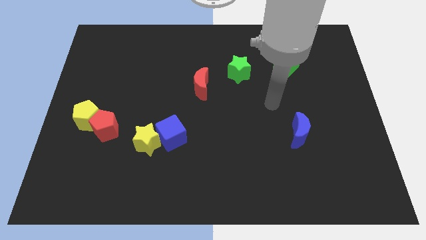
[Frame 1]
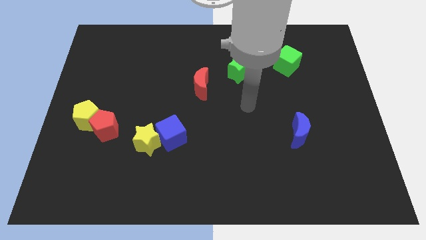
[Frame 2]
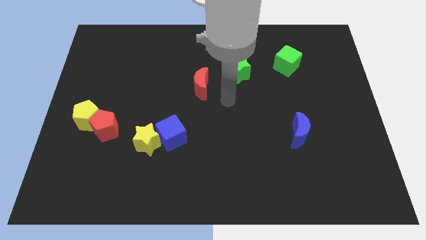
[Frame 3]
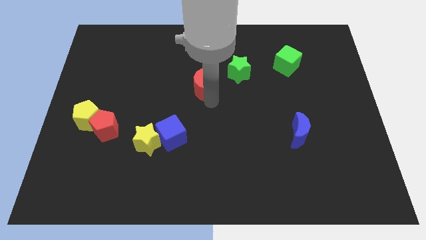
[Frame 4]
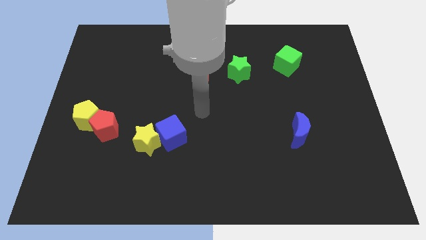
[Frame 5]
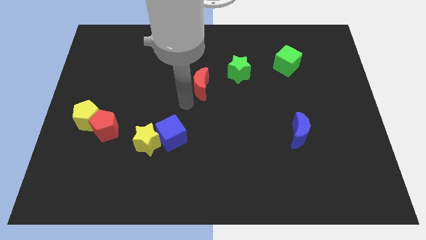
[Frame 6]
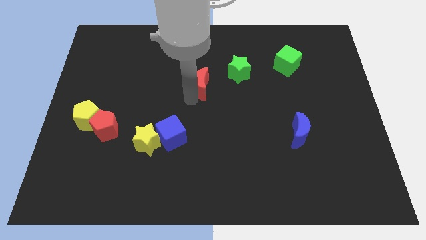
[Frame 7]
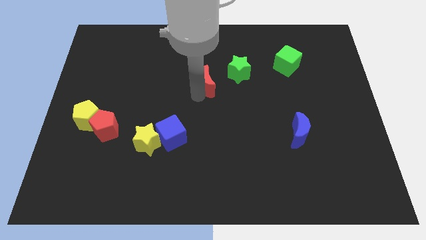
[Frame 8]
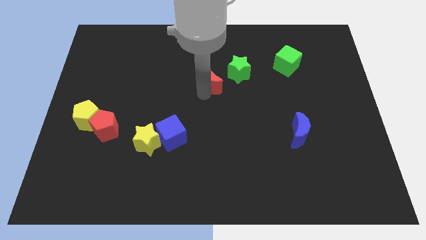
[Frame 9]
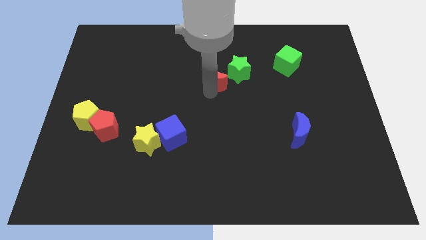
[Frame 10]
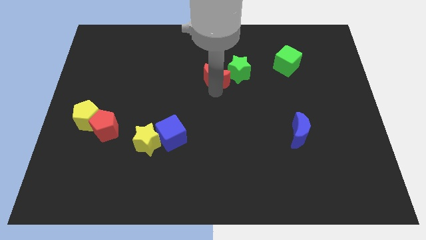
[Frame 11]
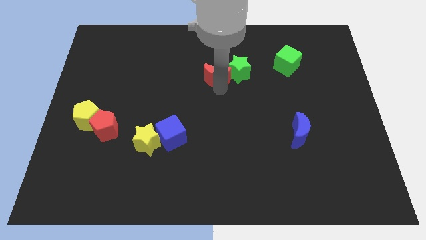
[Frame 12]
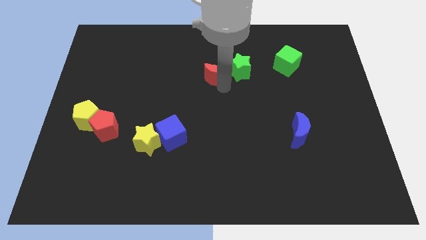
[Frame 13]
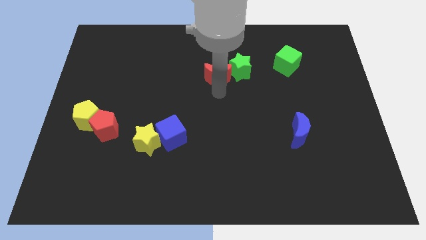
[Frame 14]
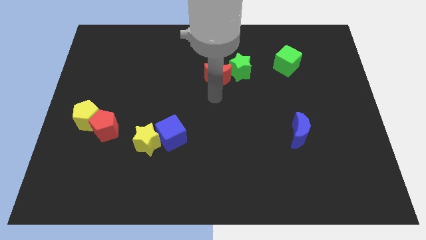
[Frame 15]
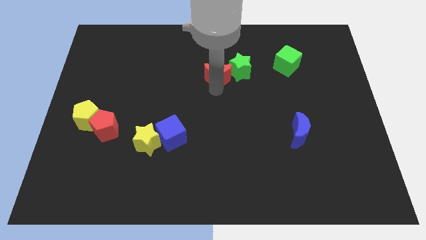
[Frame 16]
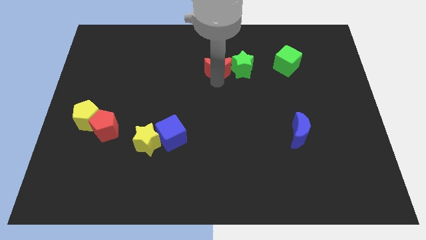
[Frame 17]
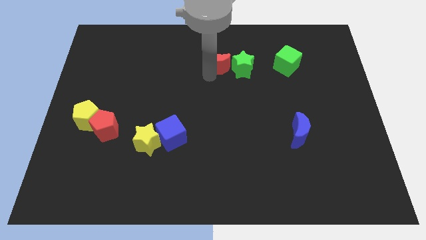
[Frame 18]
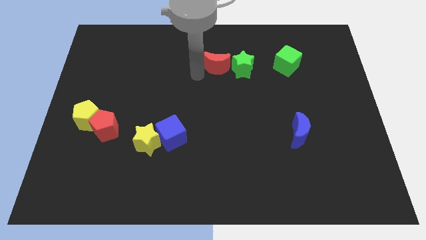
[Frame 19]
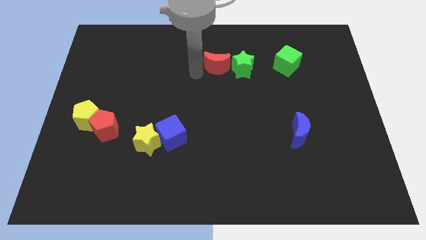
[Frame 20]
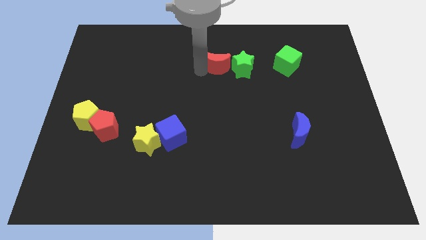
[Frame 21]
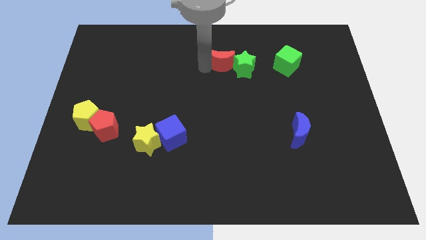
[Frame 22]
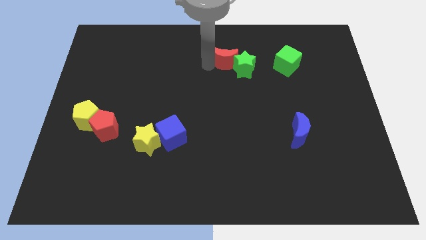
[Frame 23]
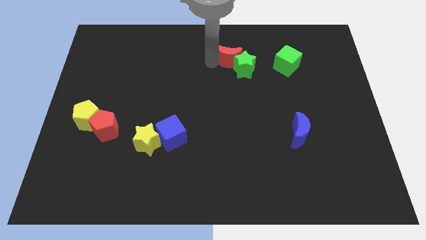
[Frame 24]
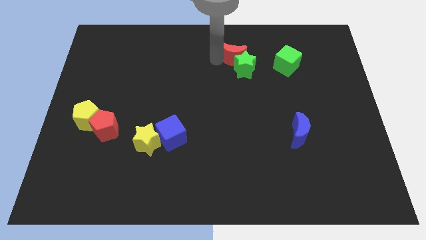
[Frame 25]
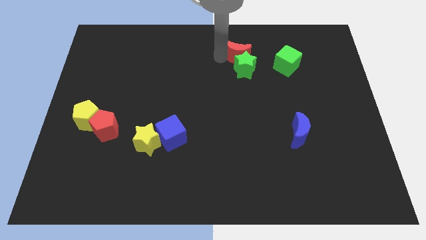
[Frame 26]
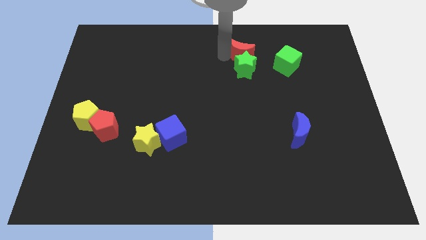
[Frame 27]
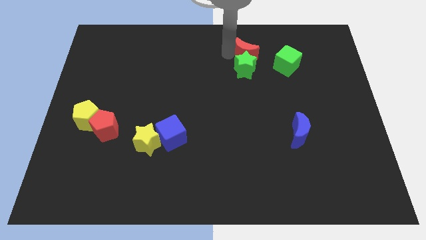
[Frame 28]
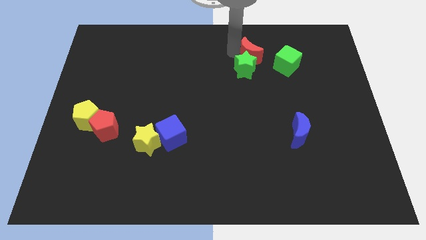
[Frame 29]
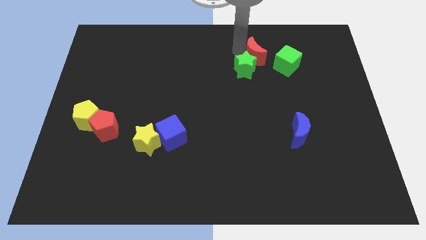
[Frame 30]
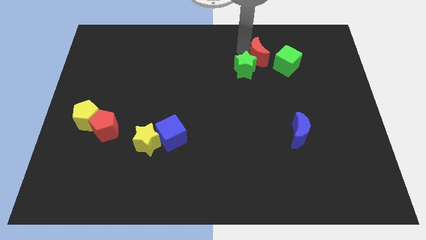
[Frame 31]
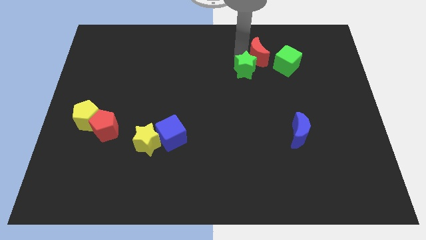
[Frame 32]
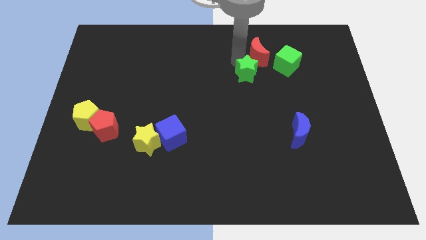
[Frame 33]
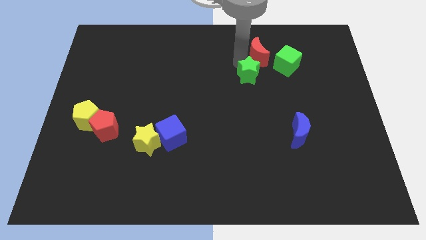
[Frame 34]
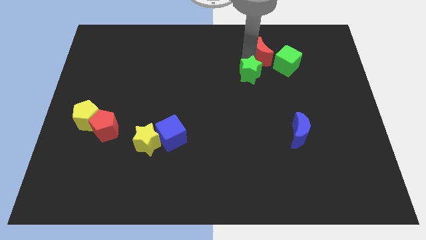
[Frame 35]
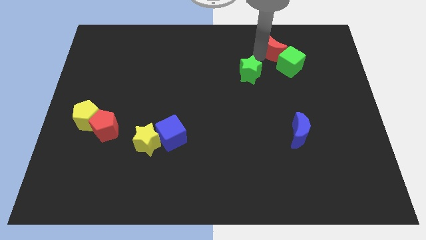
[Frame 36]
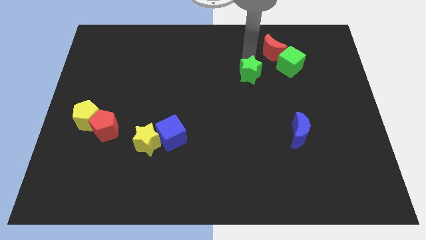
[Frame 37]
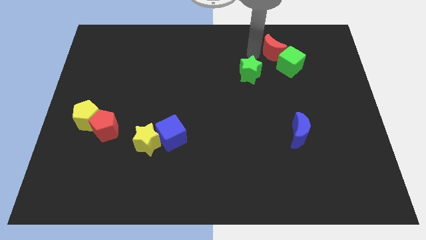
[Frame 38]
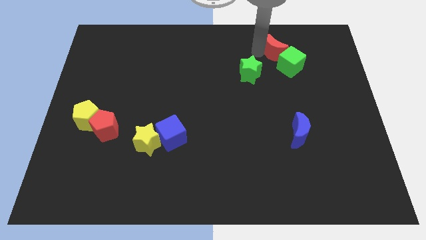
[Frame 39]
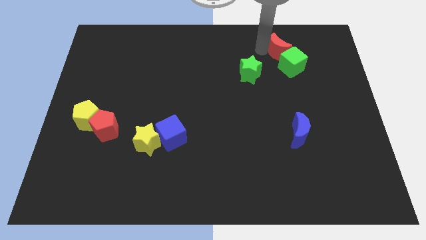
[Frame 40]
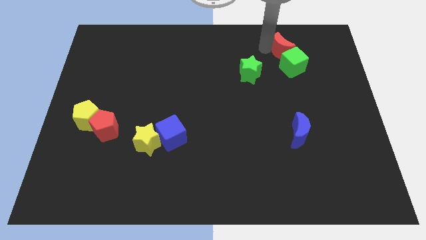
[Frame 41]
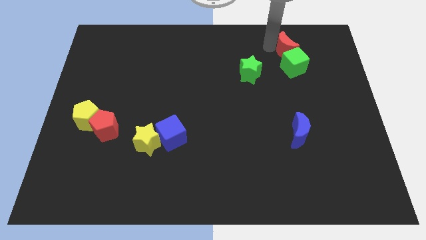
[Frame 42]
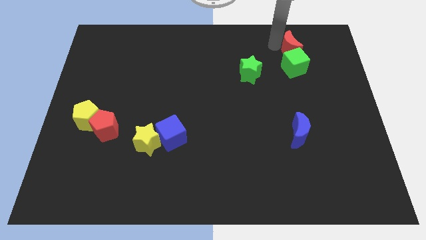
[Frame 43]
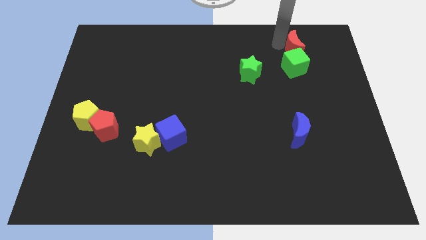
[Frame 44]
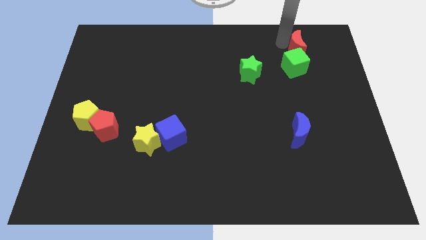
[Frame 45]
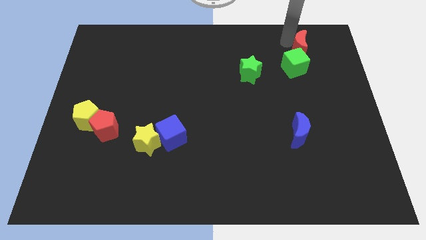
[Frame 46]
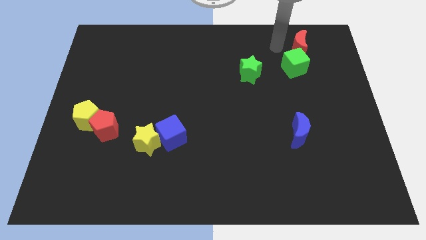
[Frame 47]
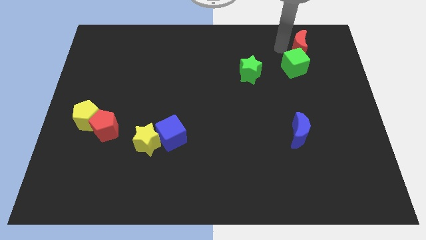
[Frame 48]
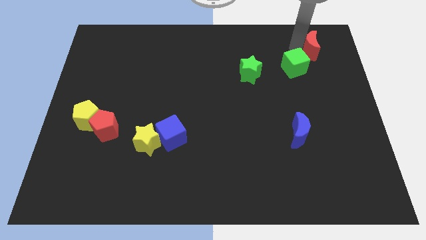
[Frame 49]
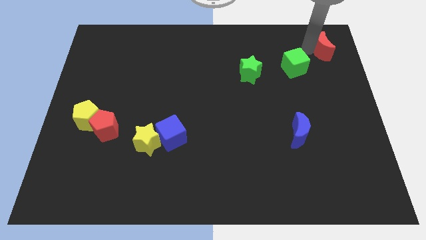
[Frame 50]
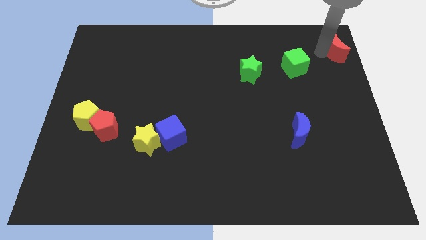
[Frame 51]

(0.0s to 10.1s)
slide the red moon to the upper right corner

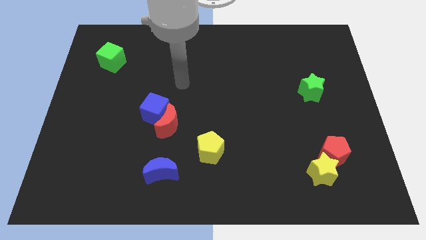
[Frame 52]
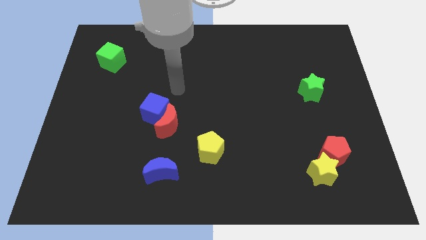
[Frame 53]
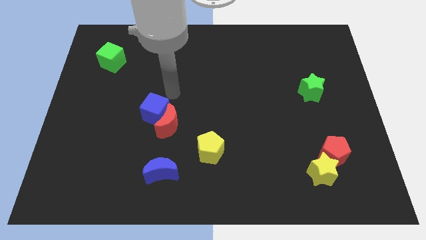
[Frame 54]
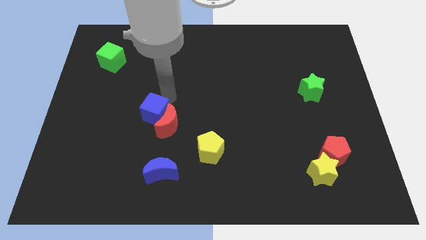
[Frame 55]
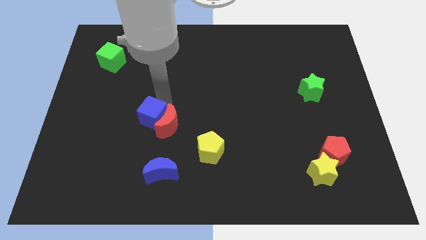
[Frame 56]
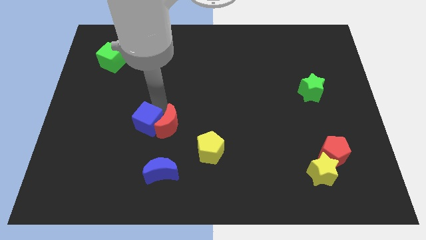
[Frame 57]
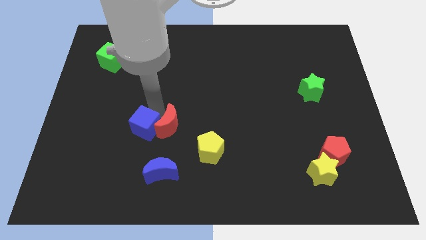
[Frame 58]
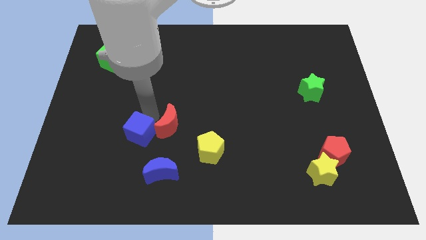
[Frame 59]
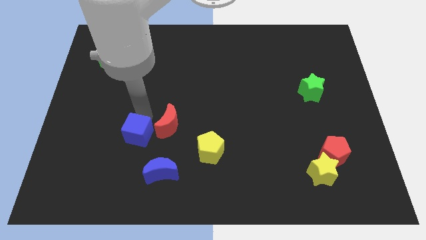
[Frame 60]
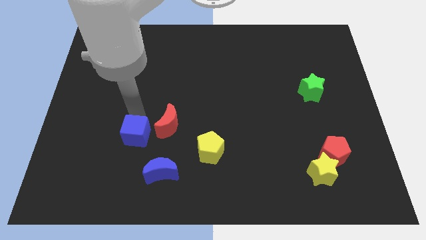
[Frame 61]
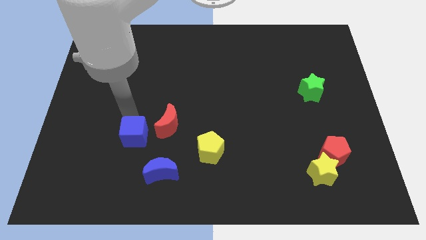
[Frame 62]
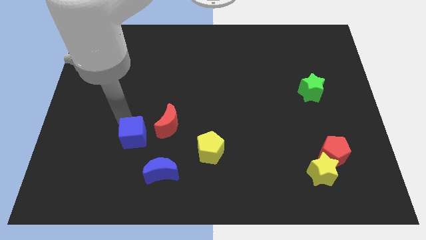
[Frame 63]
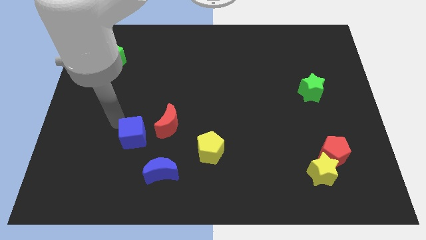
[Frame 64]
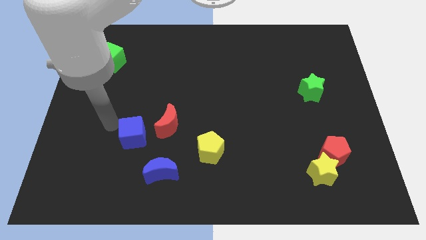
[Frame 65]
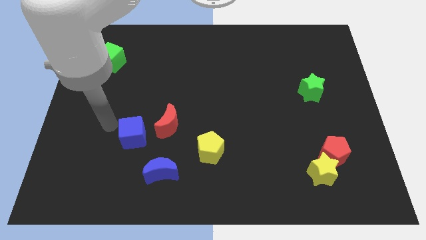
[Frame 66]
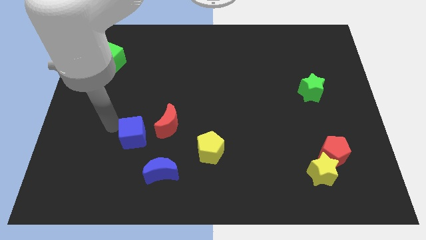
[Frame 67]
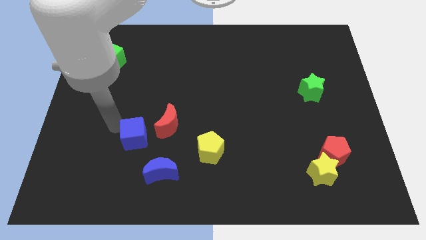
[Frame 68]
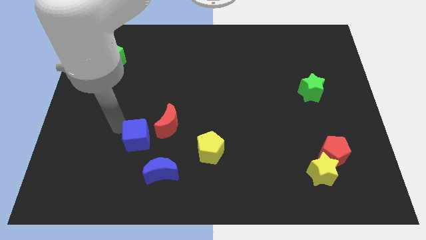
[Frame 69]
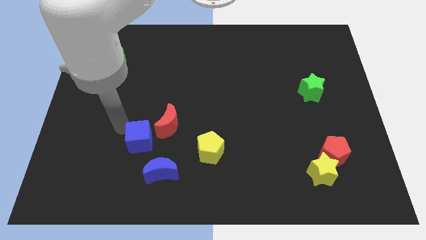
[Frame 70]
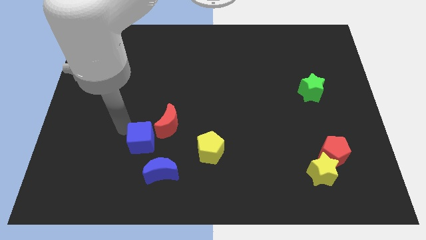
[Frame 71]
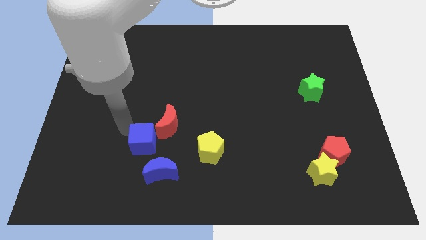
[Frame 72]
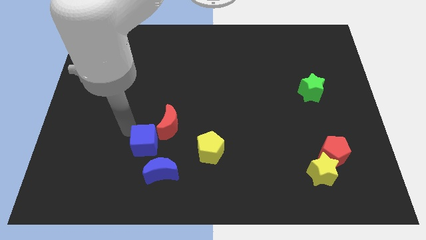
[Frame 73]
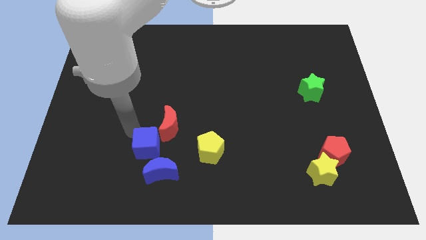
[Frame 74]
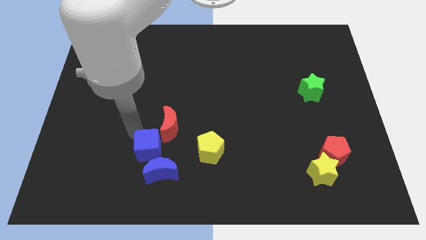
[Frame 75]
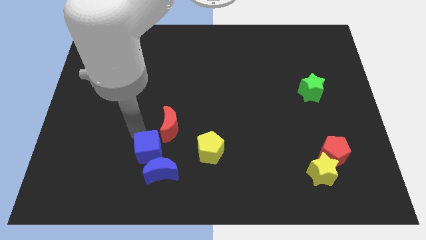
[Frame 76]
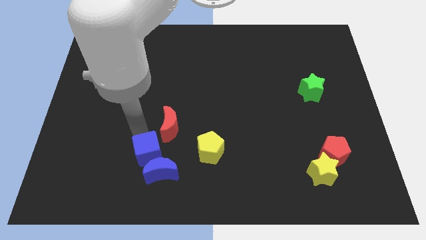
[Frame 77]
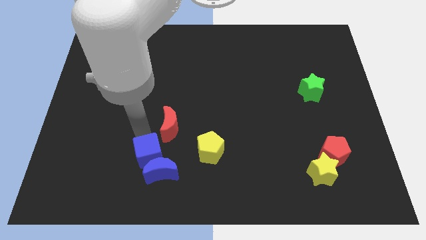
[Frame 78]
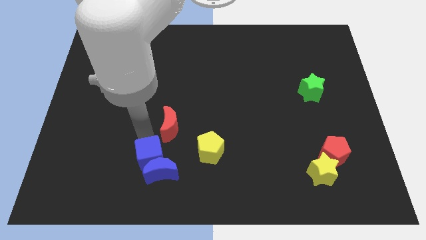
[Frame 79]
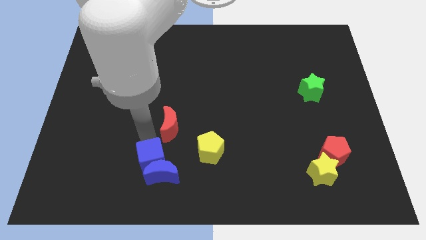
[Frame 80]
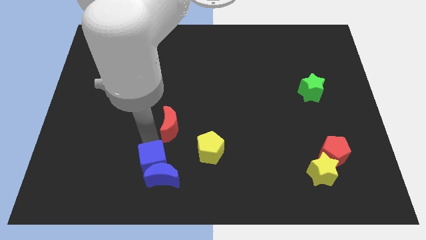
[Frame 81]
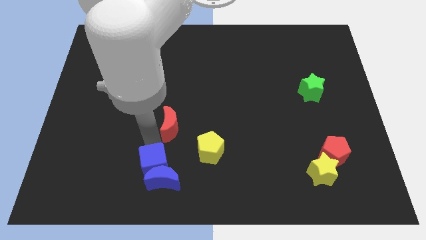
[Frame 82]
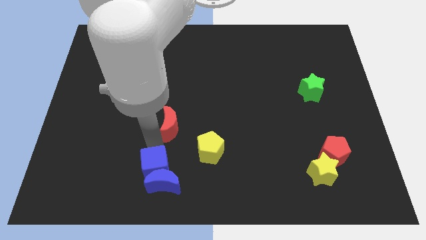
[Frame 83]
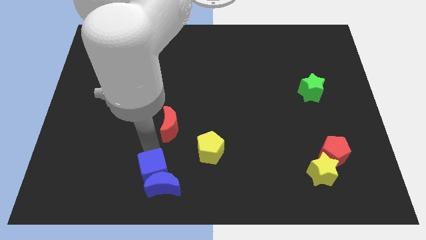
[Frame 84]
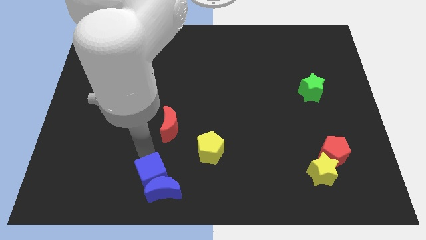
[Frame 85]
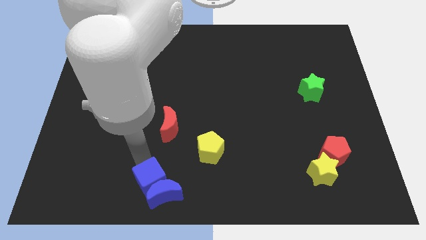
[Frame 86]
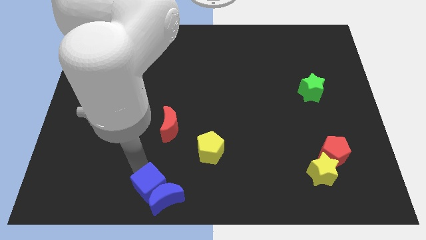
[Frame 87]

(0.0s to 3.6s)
slide the blue cube to the bottom
